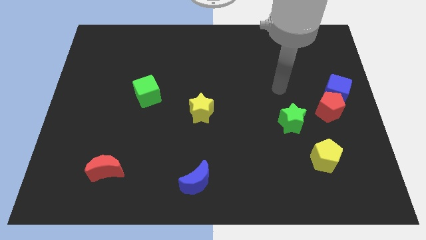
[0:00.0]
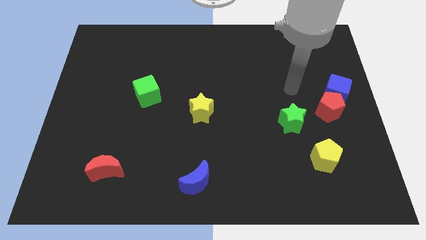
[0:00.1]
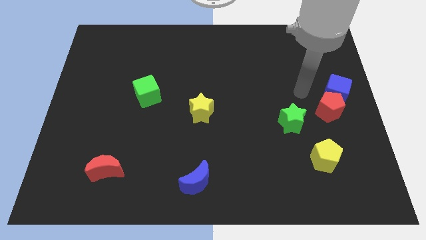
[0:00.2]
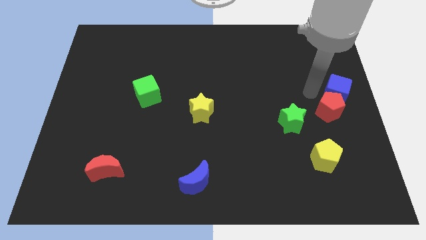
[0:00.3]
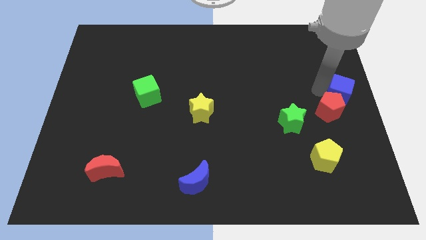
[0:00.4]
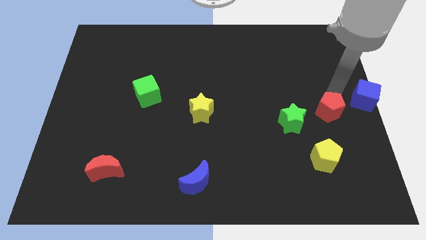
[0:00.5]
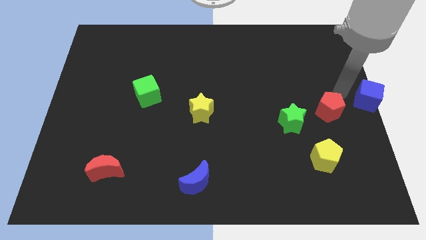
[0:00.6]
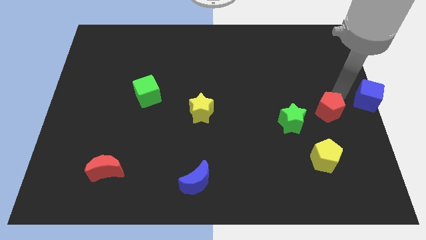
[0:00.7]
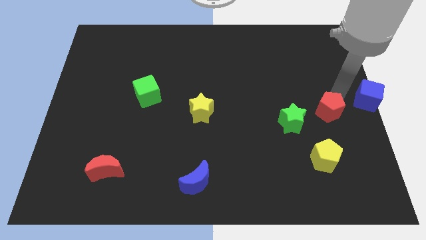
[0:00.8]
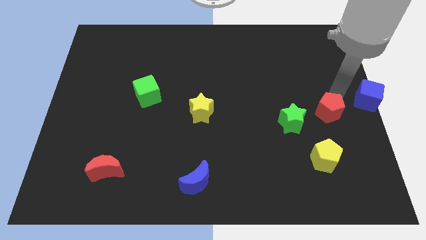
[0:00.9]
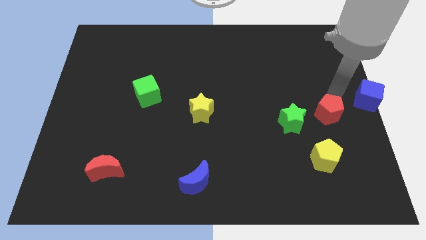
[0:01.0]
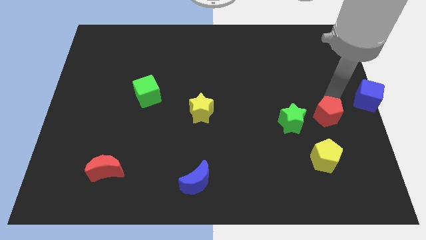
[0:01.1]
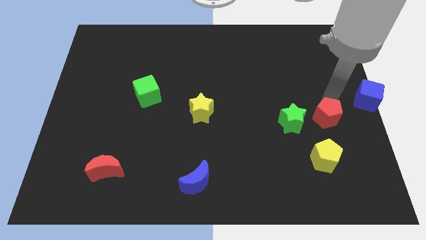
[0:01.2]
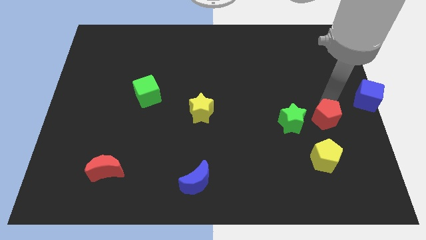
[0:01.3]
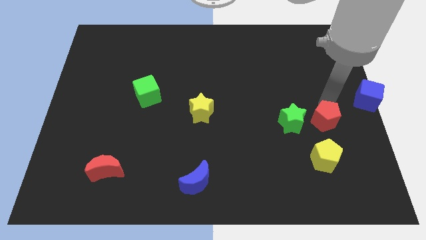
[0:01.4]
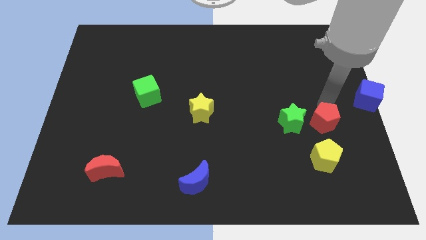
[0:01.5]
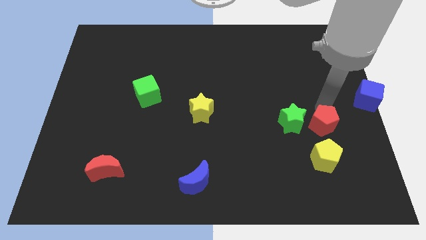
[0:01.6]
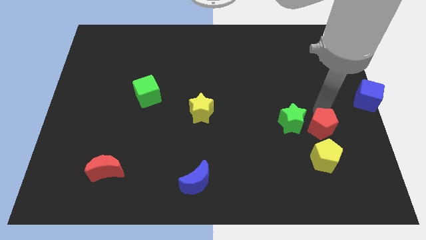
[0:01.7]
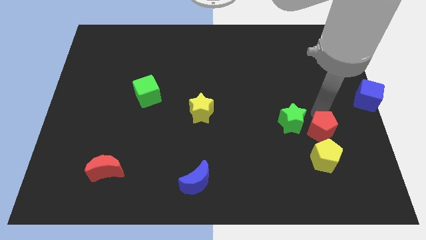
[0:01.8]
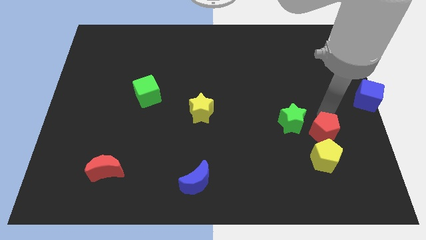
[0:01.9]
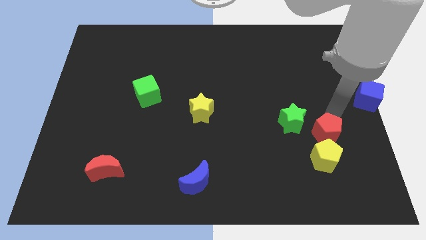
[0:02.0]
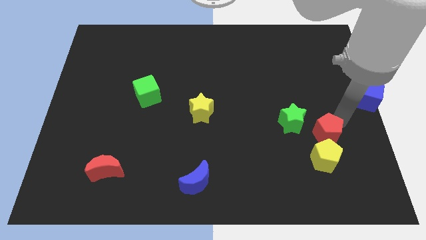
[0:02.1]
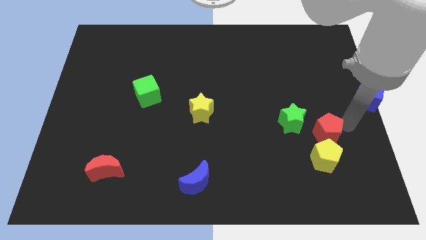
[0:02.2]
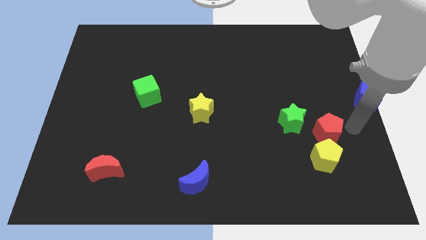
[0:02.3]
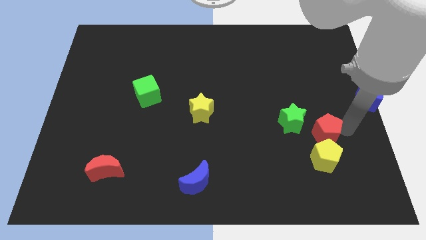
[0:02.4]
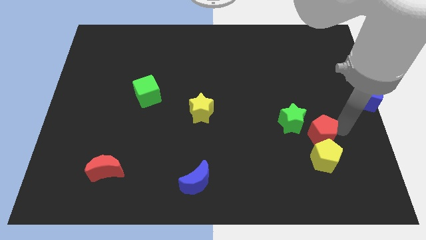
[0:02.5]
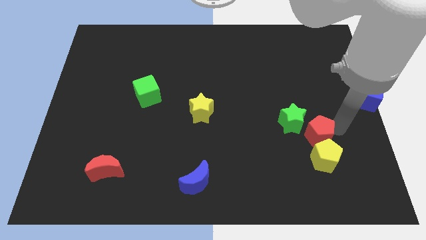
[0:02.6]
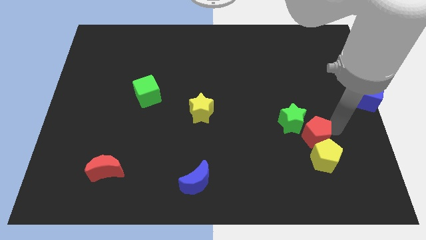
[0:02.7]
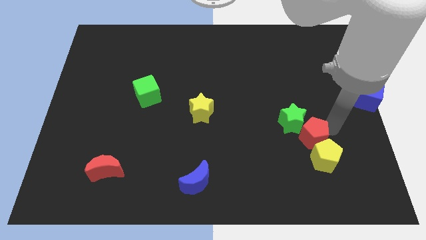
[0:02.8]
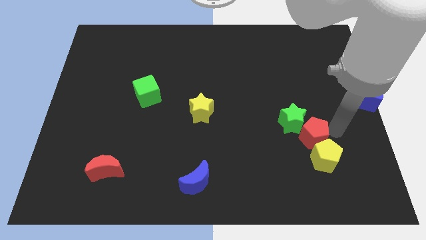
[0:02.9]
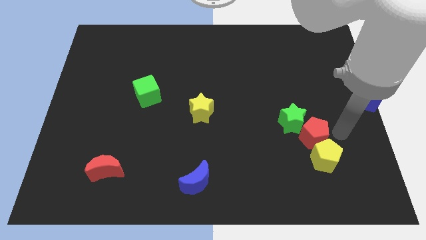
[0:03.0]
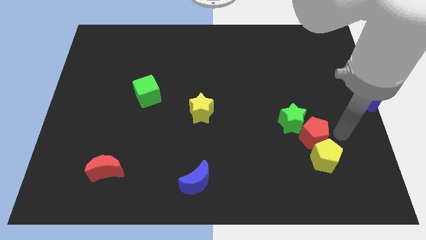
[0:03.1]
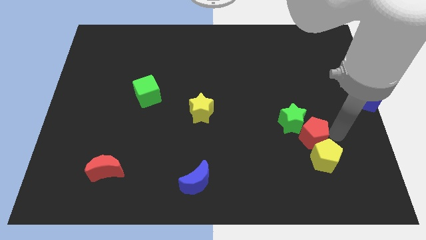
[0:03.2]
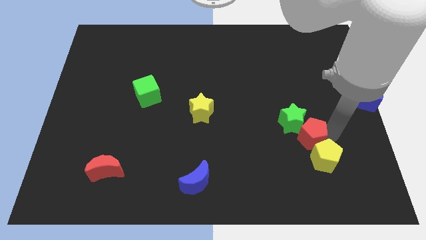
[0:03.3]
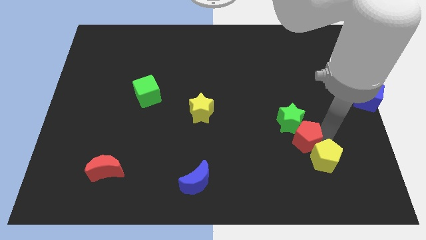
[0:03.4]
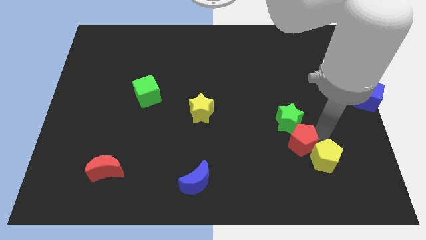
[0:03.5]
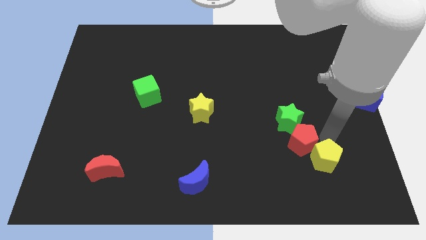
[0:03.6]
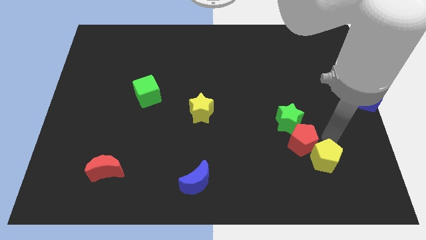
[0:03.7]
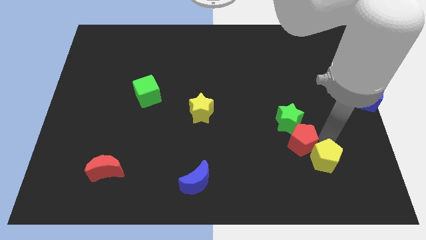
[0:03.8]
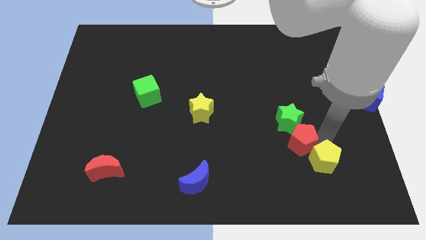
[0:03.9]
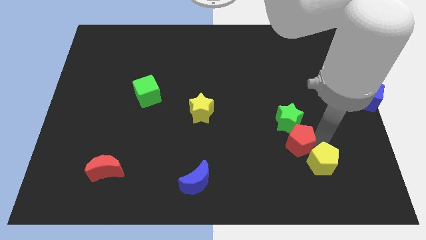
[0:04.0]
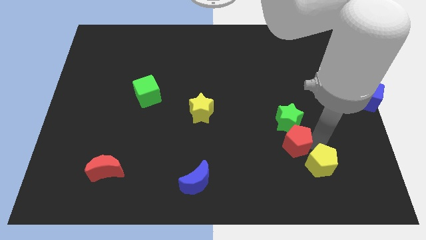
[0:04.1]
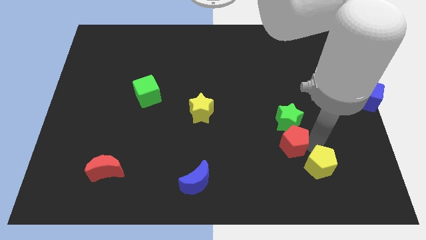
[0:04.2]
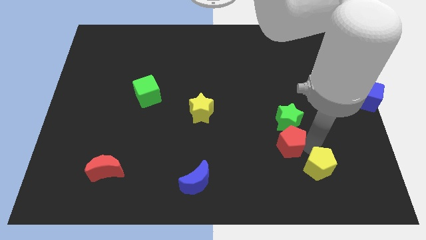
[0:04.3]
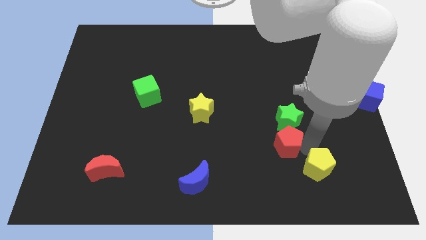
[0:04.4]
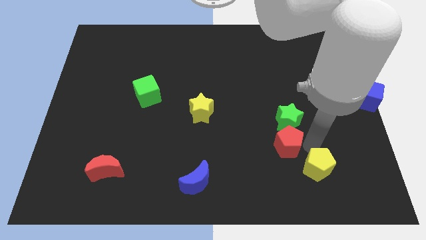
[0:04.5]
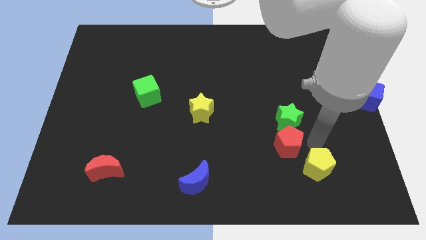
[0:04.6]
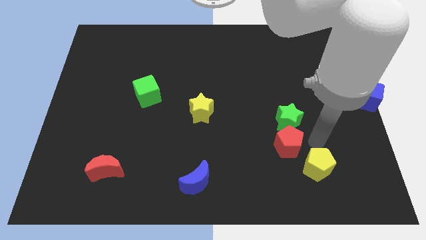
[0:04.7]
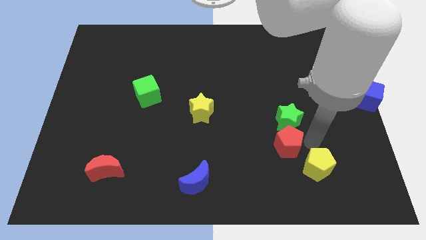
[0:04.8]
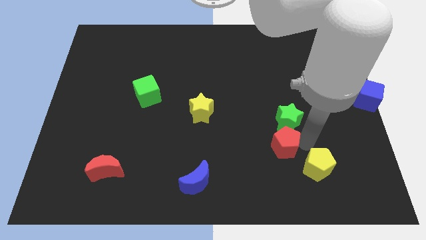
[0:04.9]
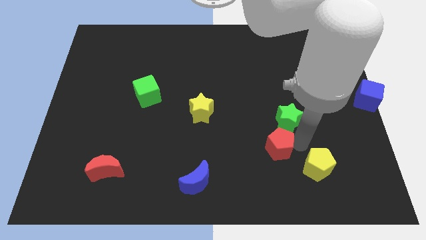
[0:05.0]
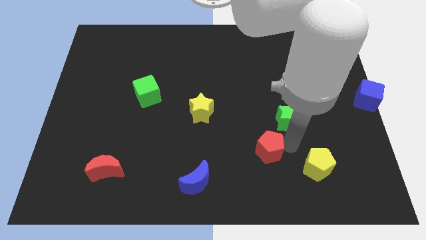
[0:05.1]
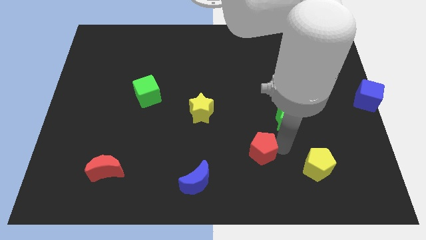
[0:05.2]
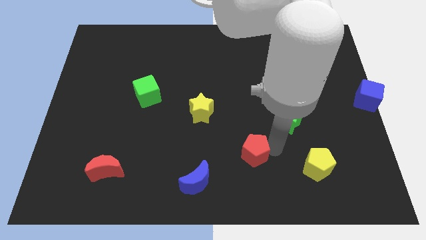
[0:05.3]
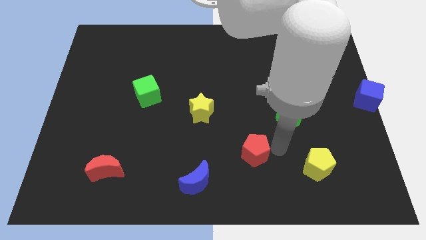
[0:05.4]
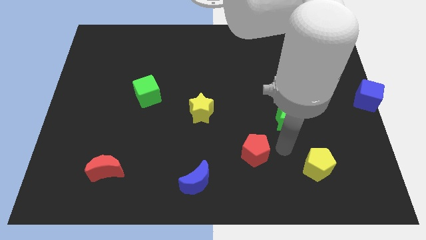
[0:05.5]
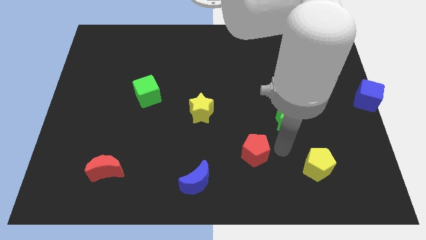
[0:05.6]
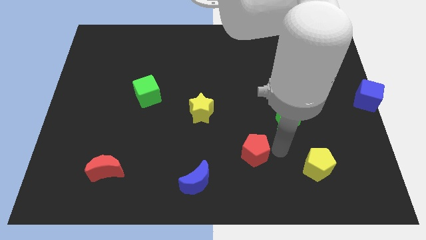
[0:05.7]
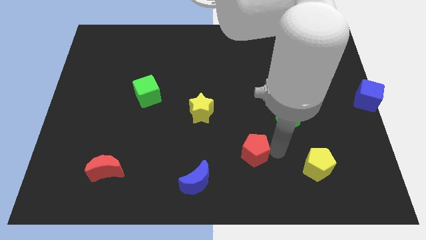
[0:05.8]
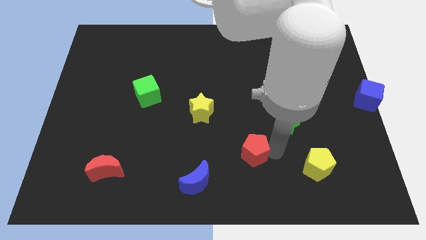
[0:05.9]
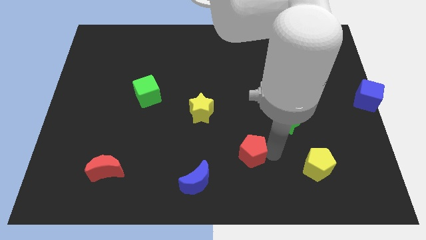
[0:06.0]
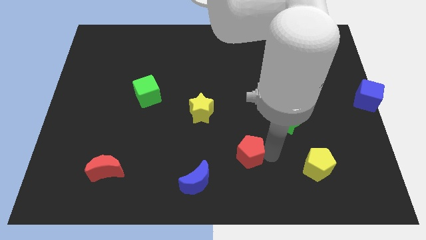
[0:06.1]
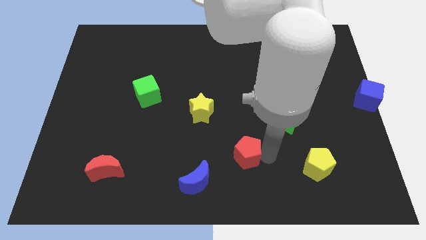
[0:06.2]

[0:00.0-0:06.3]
move the red pentagon to the top right of the blue moon
